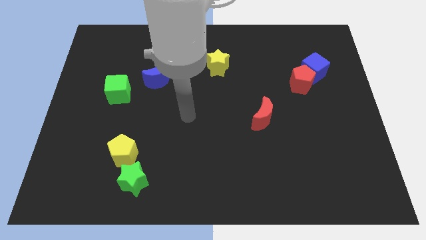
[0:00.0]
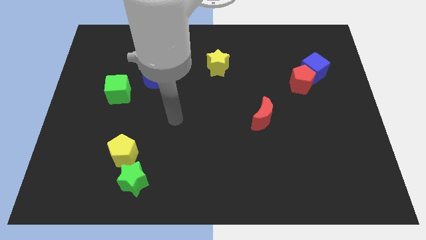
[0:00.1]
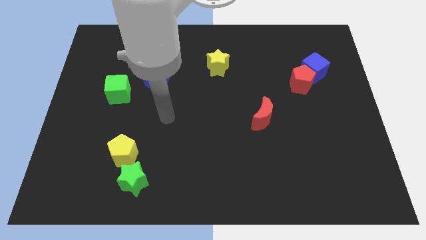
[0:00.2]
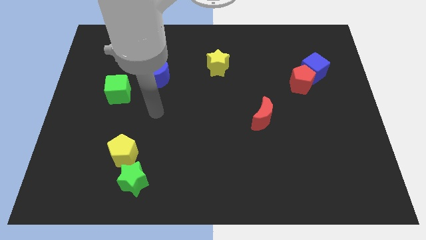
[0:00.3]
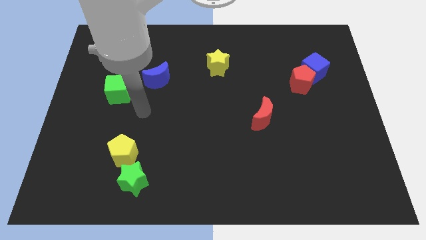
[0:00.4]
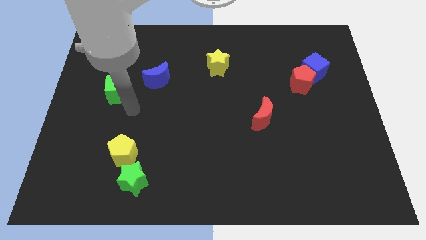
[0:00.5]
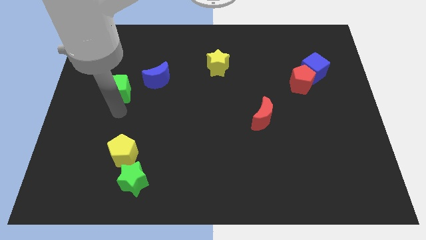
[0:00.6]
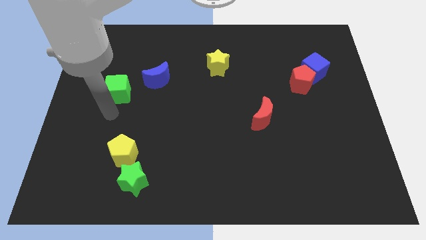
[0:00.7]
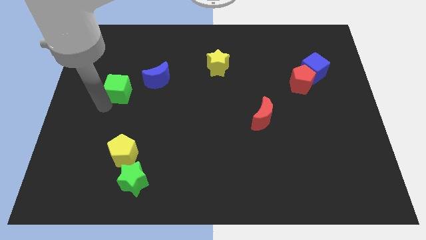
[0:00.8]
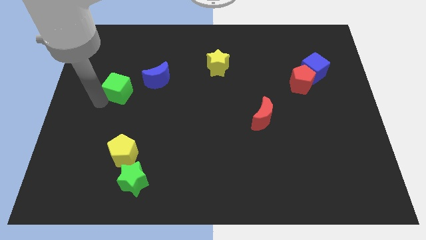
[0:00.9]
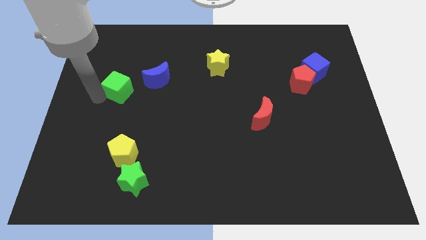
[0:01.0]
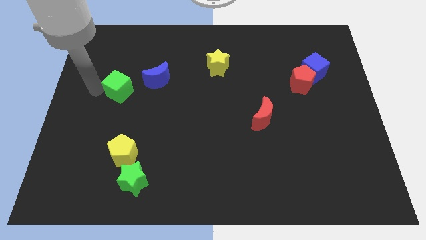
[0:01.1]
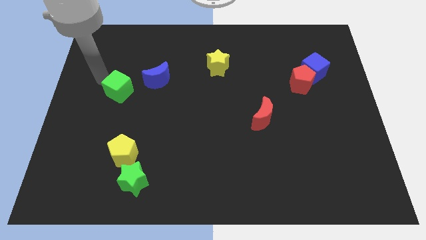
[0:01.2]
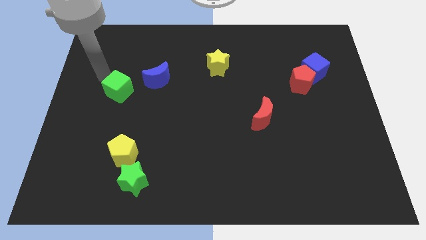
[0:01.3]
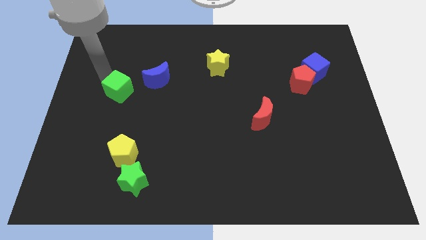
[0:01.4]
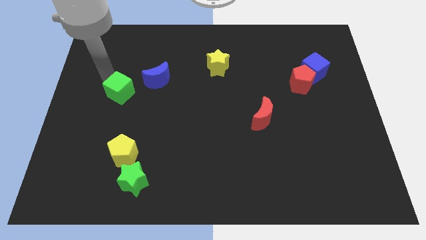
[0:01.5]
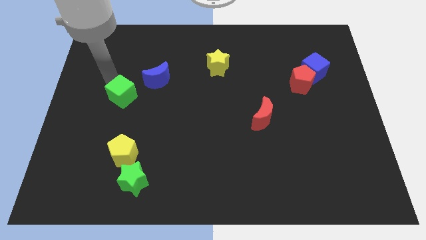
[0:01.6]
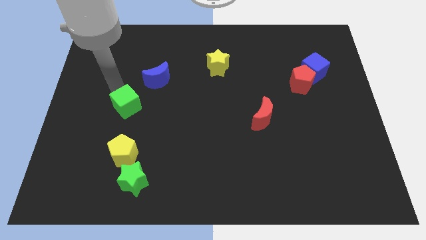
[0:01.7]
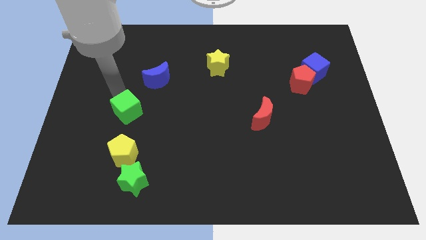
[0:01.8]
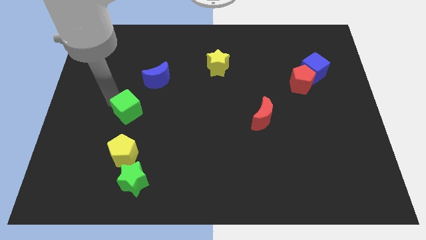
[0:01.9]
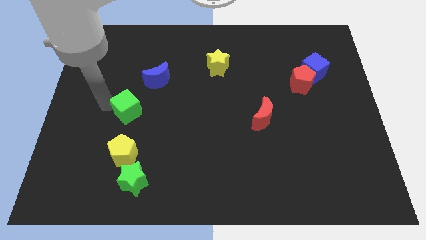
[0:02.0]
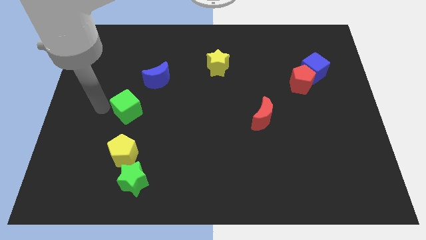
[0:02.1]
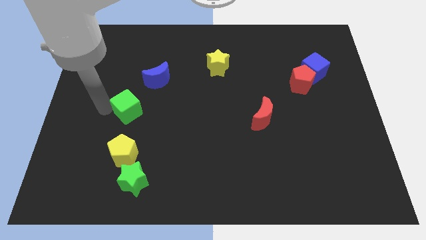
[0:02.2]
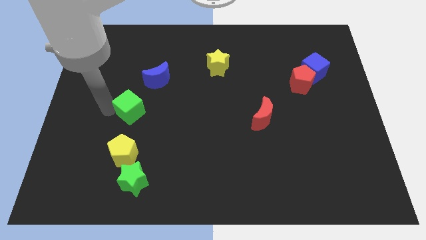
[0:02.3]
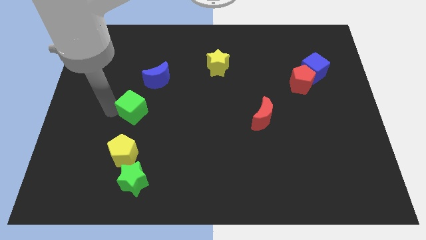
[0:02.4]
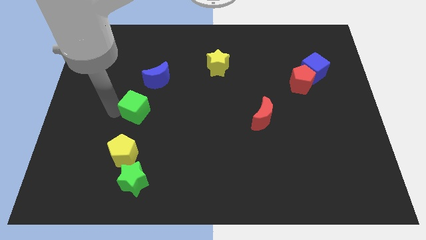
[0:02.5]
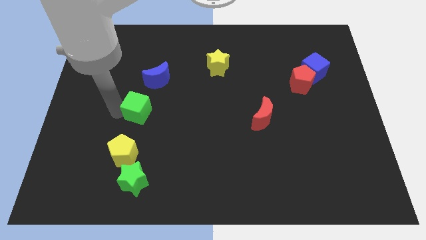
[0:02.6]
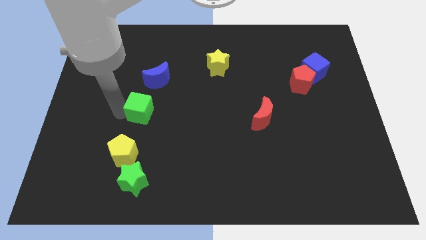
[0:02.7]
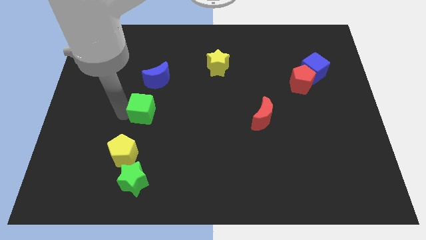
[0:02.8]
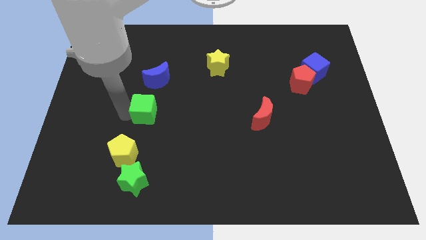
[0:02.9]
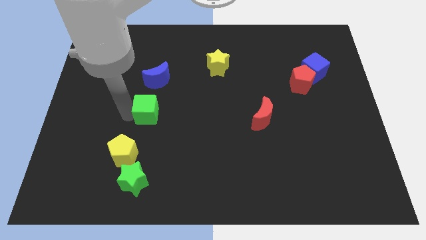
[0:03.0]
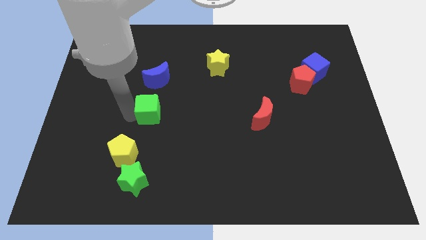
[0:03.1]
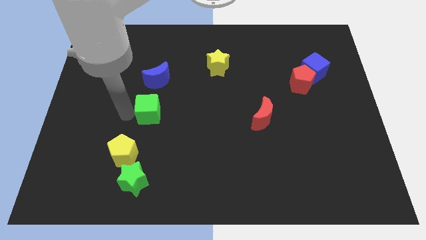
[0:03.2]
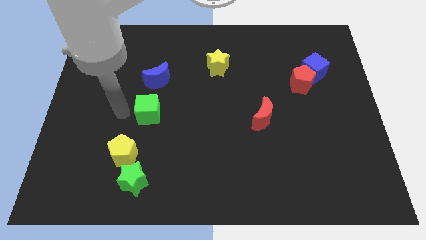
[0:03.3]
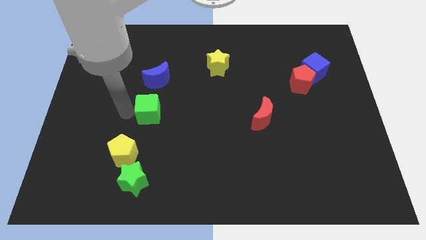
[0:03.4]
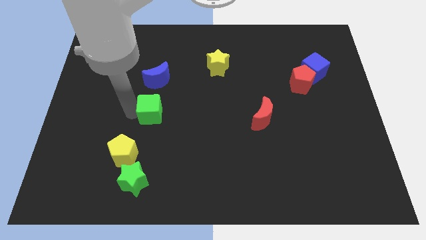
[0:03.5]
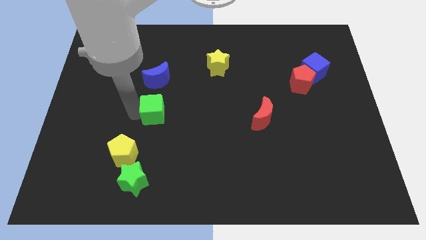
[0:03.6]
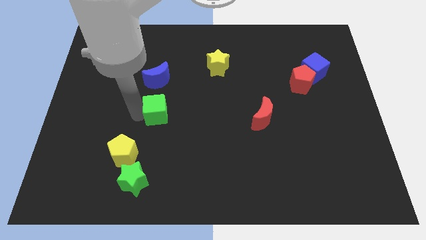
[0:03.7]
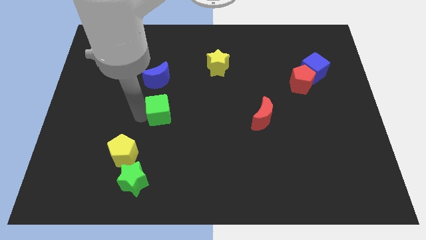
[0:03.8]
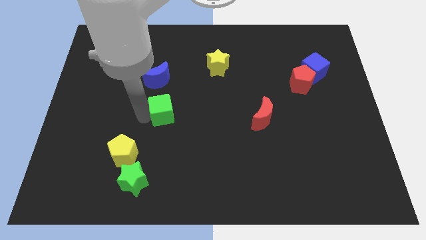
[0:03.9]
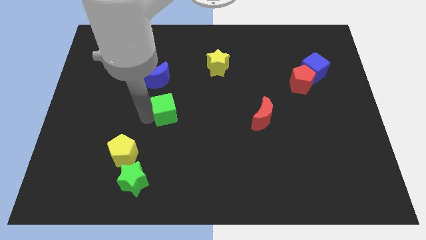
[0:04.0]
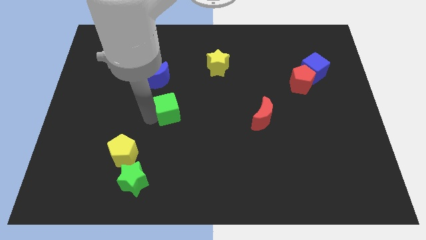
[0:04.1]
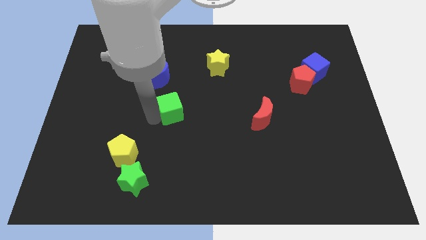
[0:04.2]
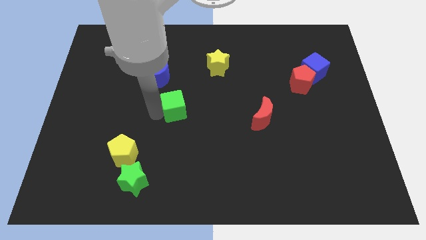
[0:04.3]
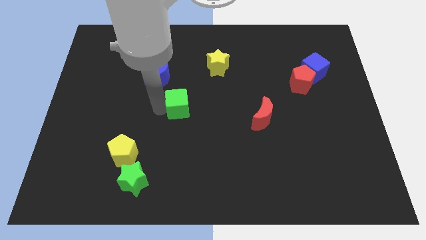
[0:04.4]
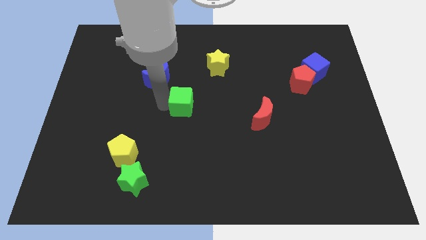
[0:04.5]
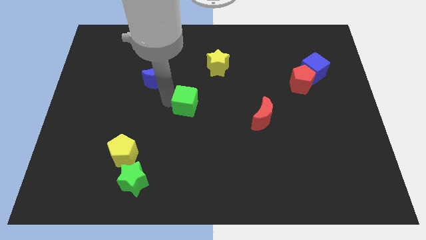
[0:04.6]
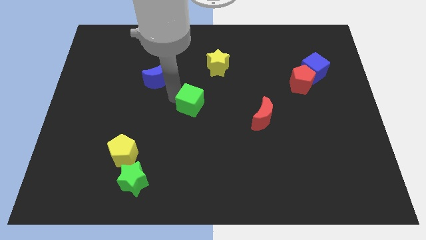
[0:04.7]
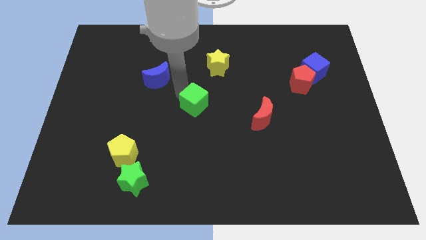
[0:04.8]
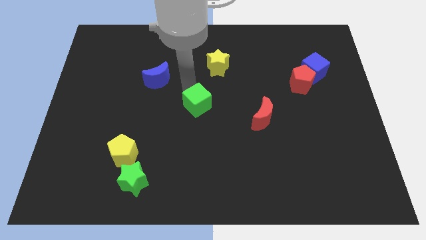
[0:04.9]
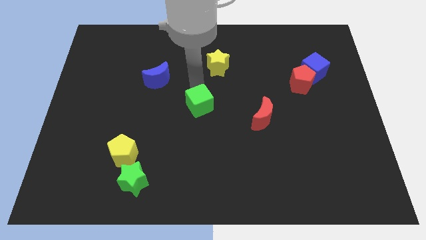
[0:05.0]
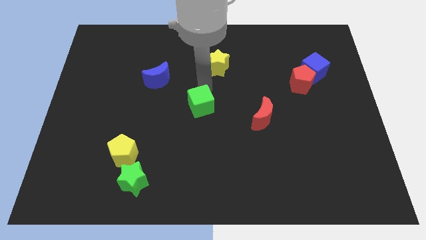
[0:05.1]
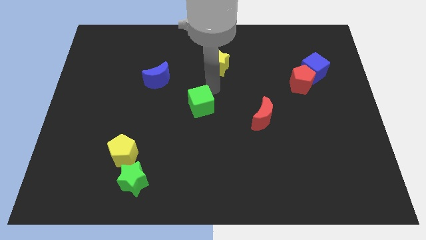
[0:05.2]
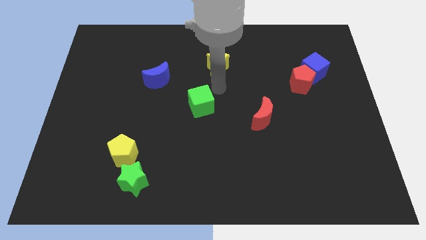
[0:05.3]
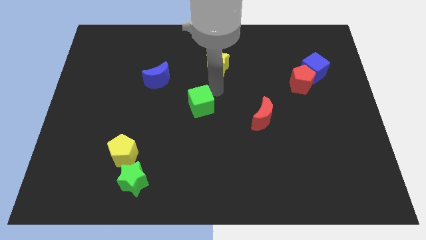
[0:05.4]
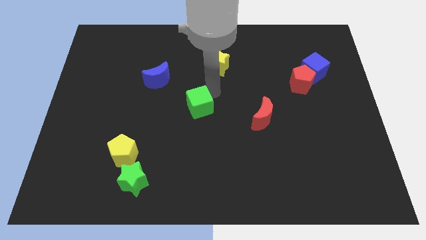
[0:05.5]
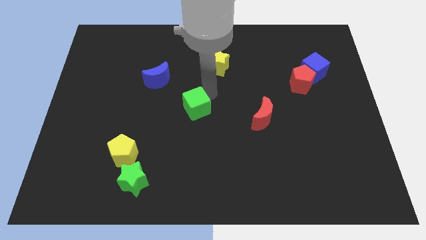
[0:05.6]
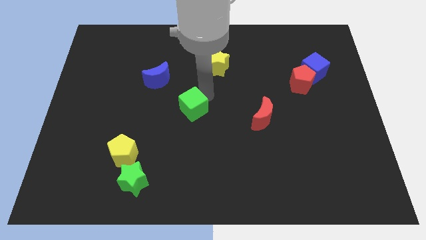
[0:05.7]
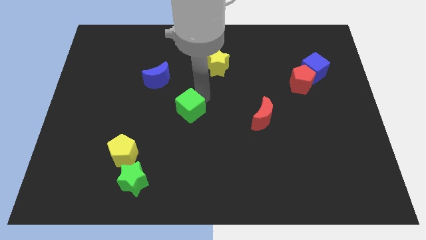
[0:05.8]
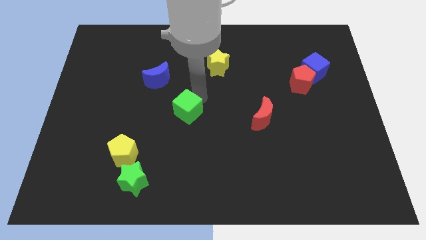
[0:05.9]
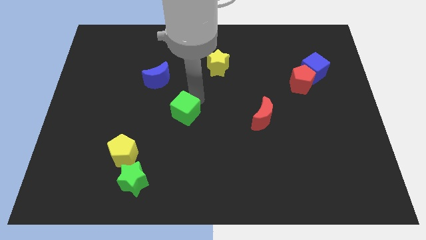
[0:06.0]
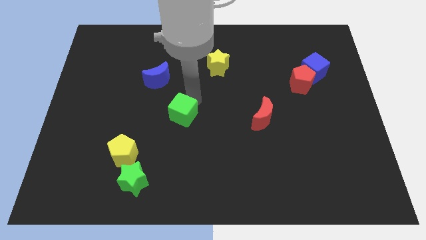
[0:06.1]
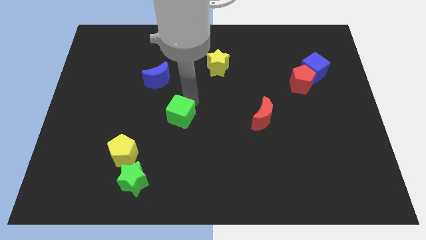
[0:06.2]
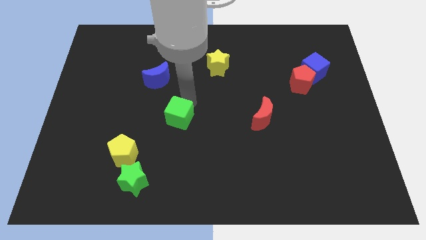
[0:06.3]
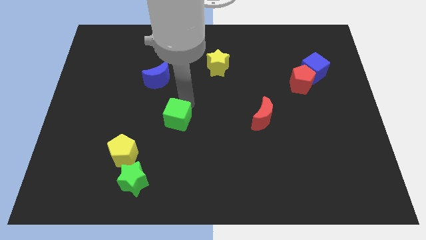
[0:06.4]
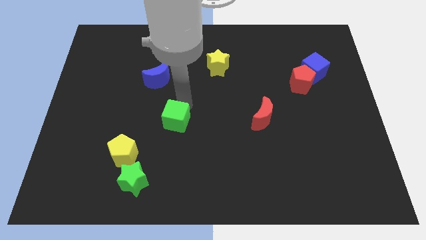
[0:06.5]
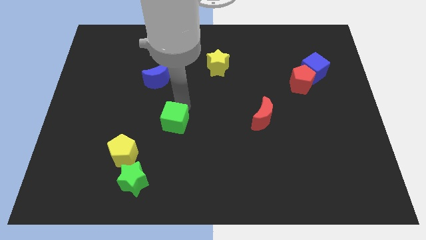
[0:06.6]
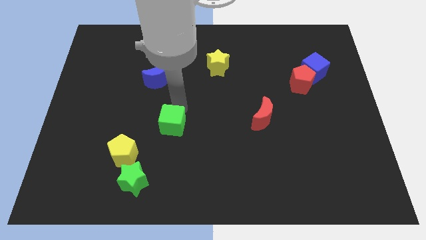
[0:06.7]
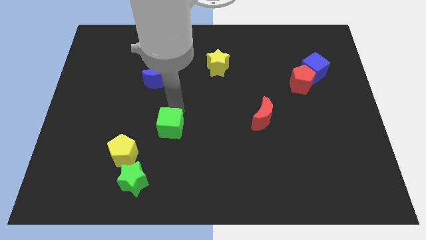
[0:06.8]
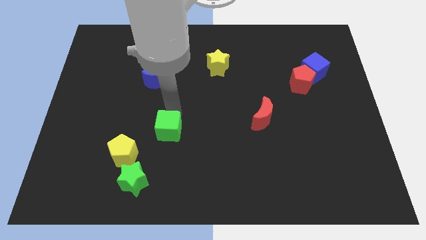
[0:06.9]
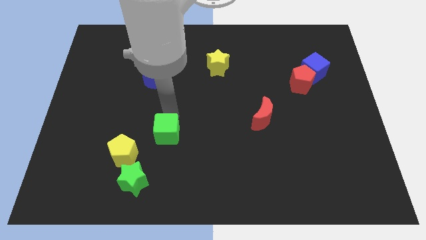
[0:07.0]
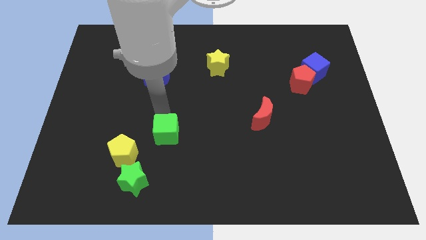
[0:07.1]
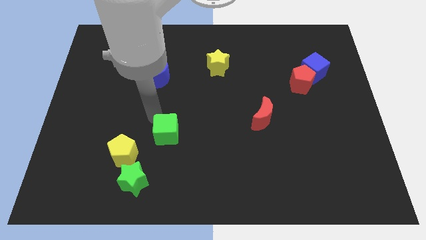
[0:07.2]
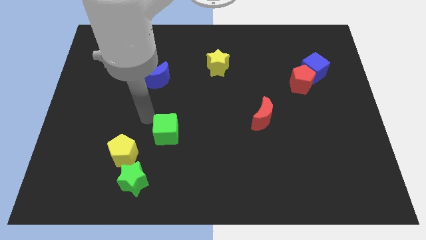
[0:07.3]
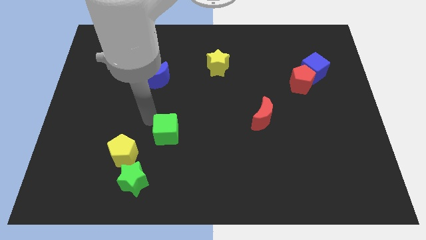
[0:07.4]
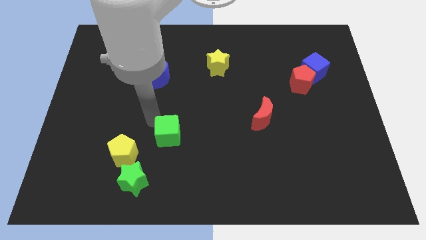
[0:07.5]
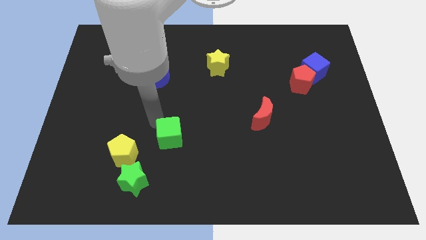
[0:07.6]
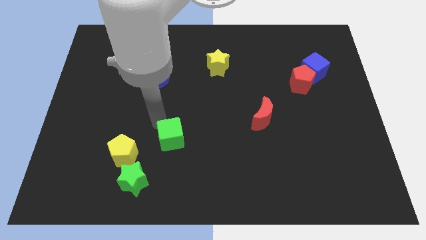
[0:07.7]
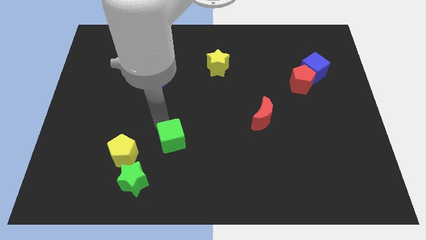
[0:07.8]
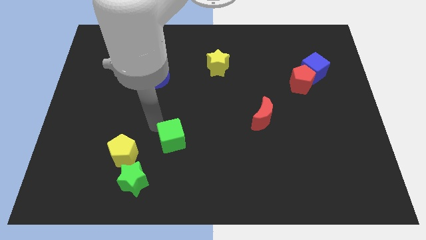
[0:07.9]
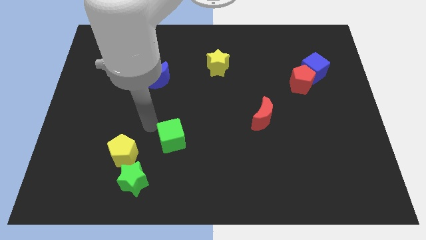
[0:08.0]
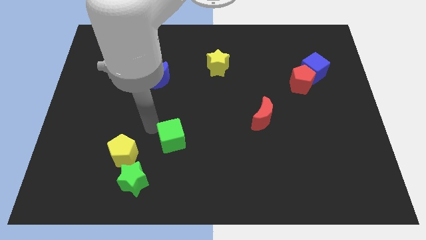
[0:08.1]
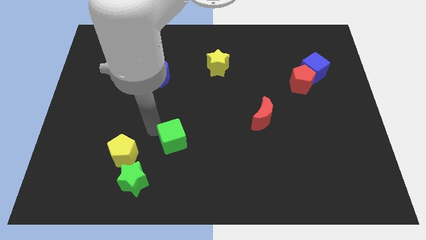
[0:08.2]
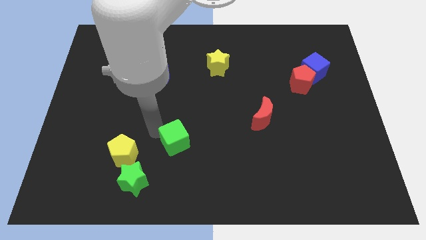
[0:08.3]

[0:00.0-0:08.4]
slide the green cube diagonally down and to the right
